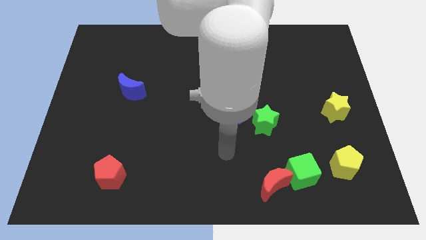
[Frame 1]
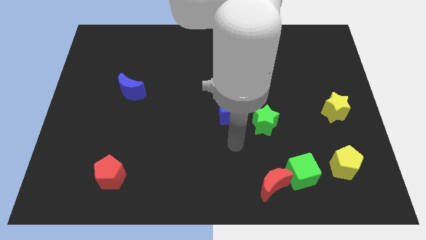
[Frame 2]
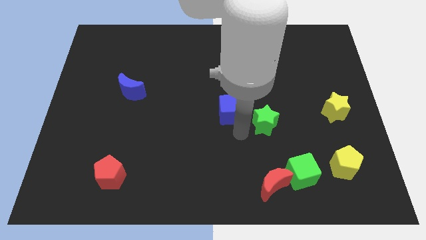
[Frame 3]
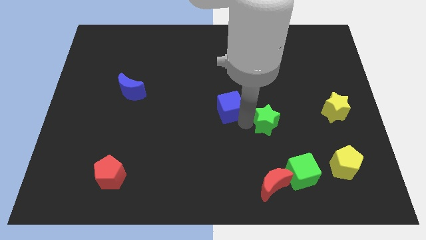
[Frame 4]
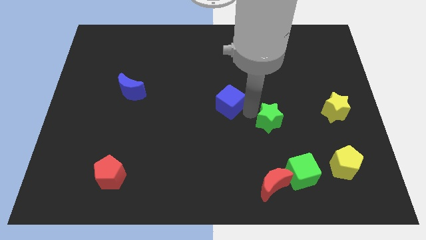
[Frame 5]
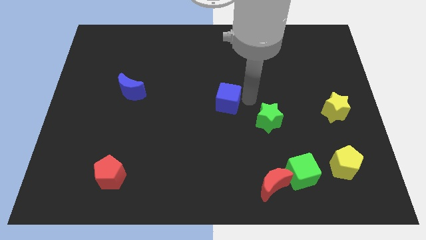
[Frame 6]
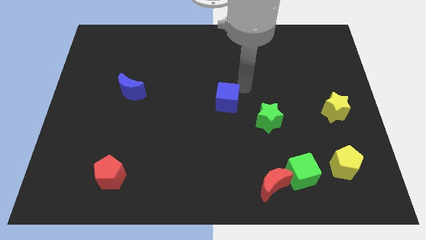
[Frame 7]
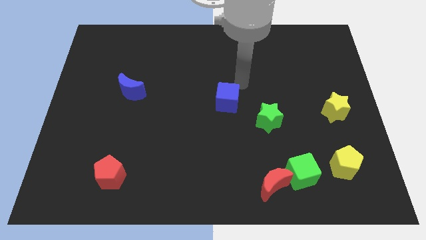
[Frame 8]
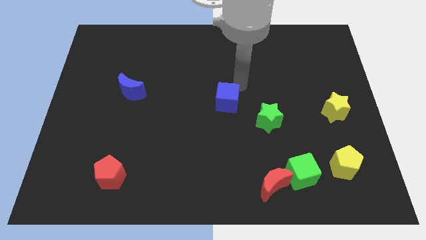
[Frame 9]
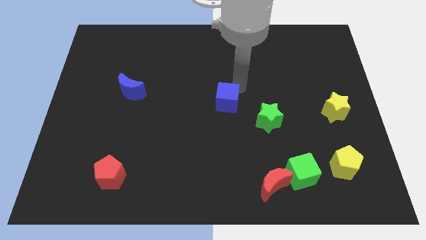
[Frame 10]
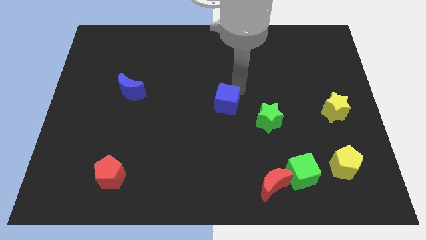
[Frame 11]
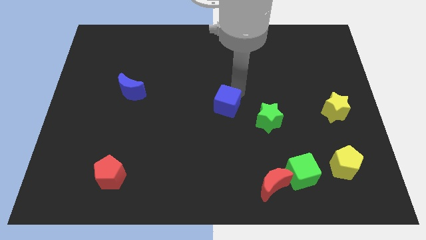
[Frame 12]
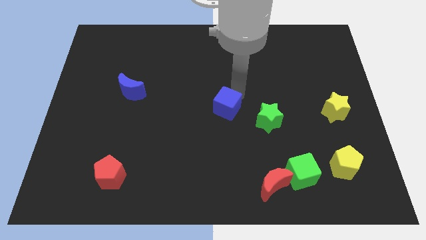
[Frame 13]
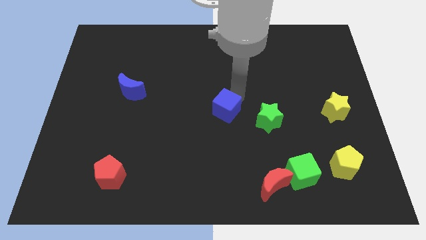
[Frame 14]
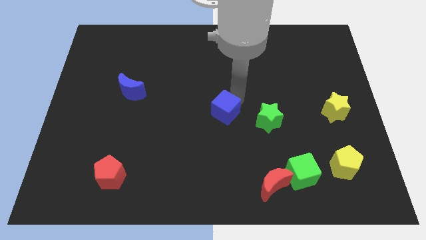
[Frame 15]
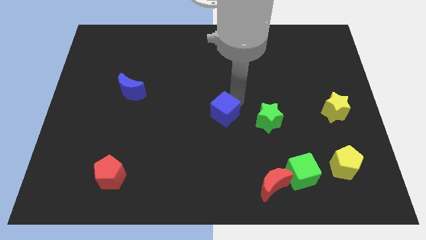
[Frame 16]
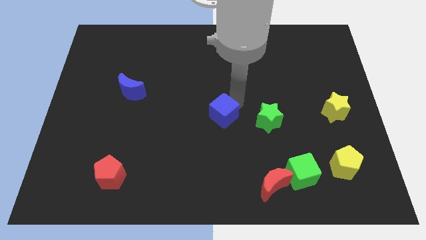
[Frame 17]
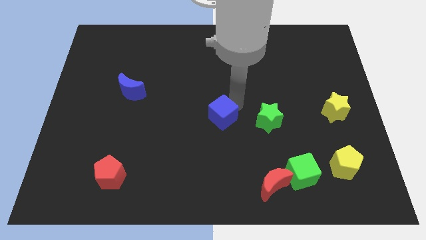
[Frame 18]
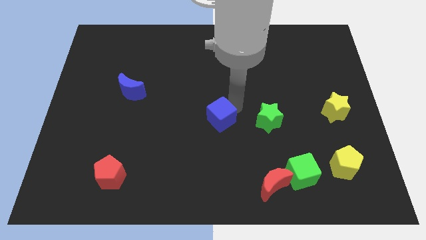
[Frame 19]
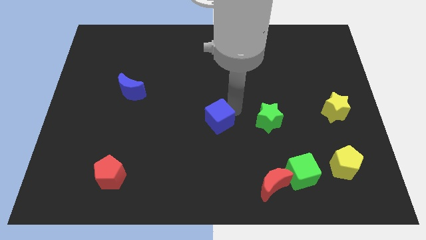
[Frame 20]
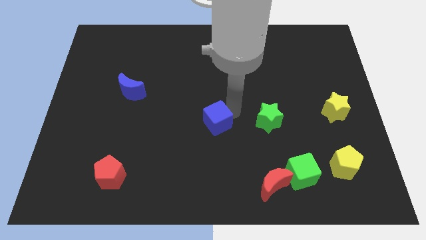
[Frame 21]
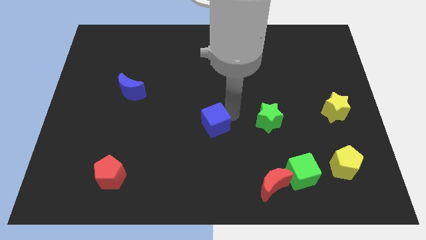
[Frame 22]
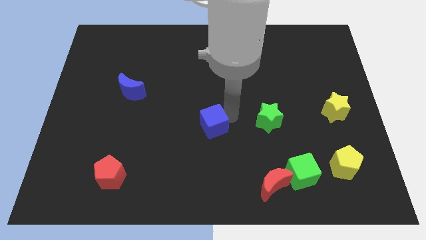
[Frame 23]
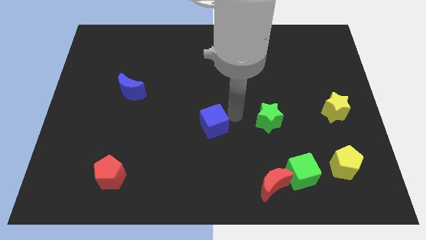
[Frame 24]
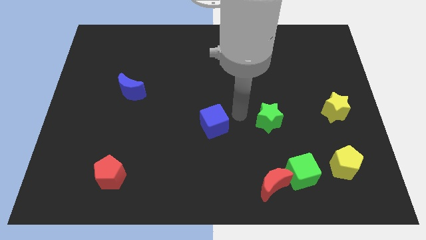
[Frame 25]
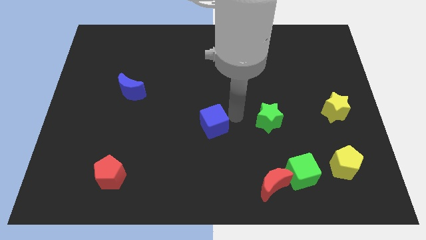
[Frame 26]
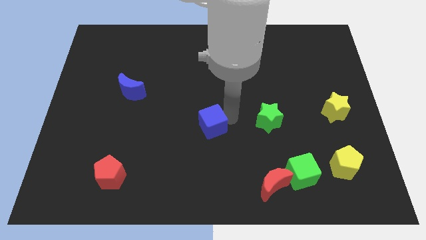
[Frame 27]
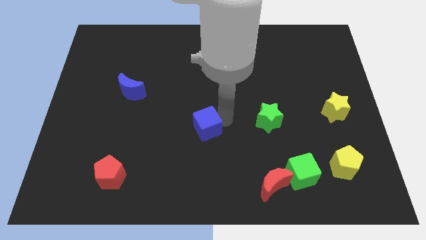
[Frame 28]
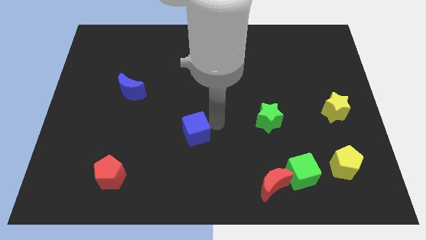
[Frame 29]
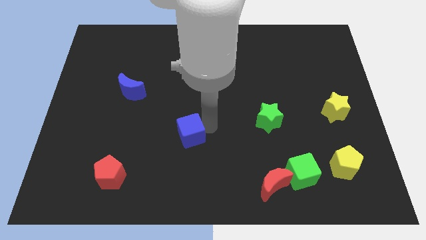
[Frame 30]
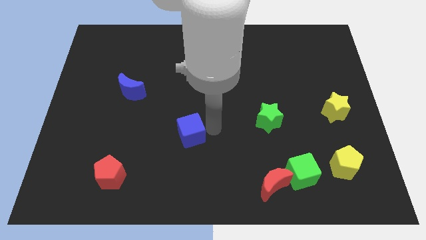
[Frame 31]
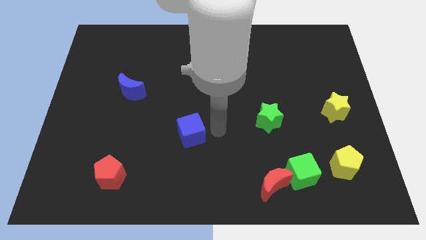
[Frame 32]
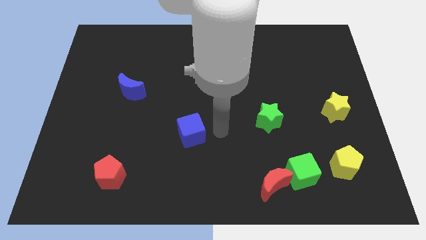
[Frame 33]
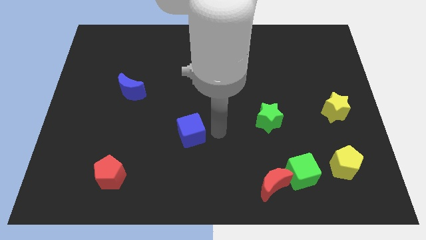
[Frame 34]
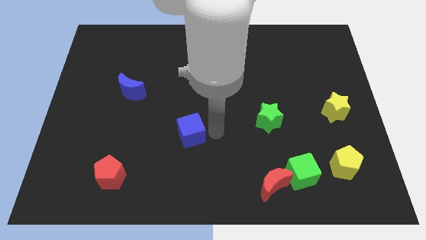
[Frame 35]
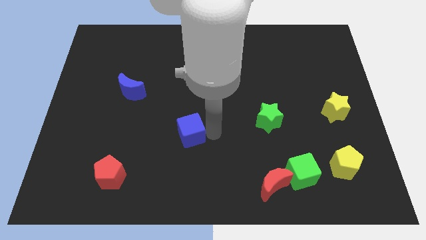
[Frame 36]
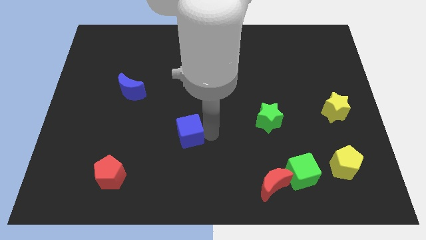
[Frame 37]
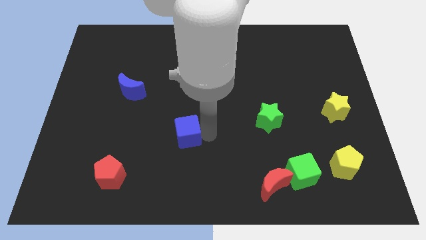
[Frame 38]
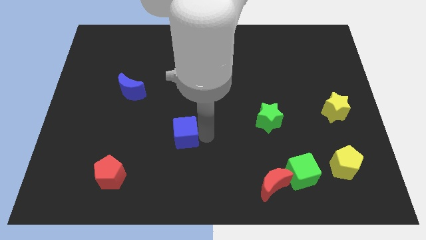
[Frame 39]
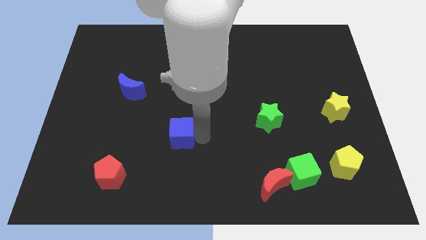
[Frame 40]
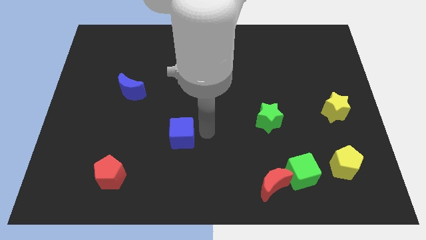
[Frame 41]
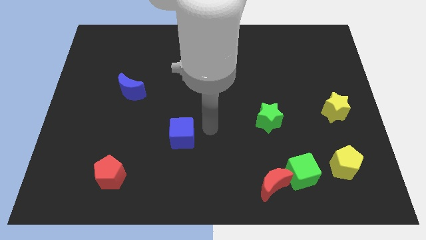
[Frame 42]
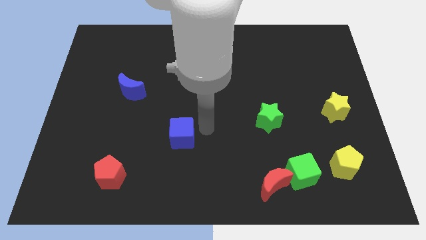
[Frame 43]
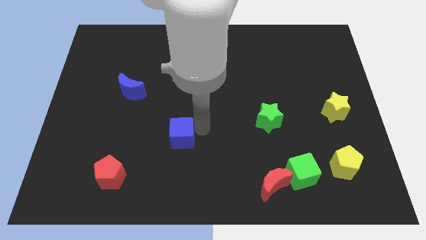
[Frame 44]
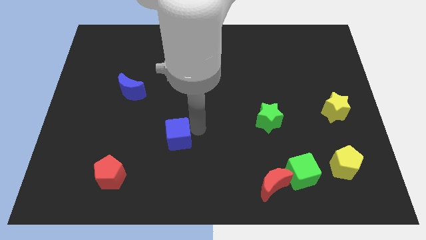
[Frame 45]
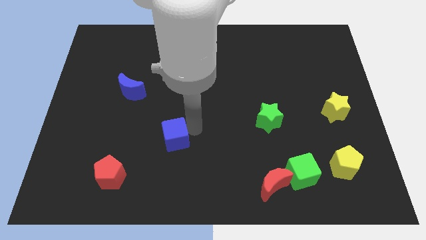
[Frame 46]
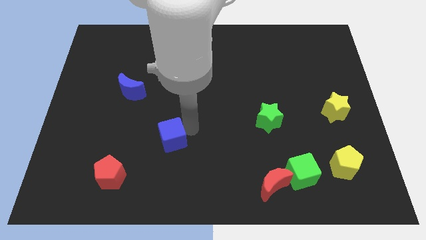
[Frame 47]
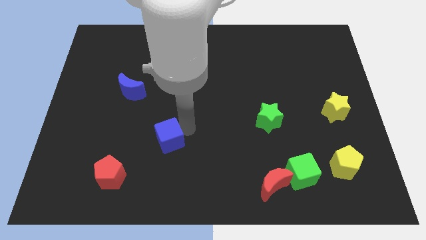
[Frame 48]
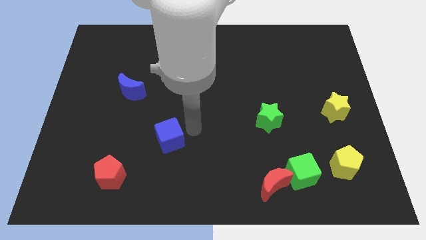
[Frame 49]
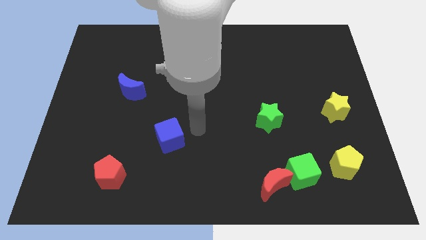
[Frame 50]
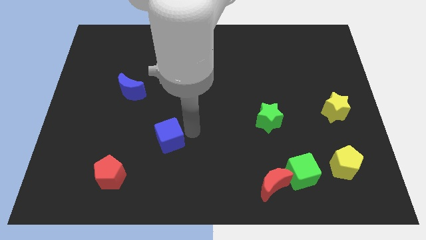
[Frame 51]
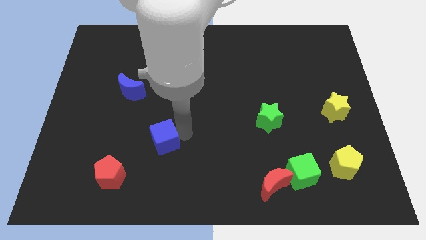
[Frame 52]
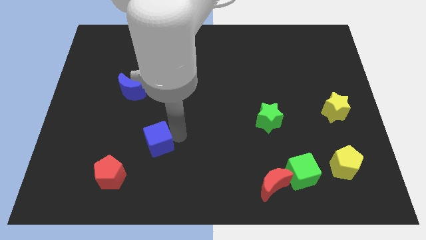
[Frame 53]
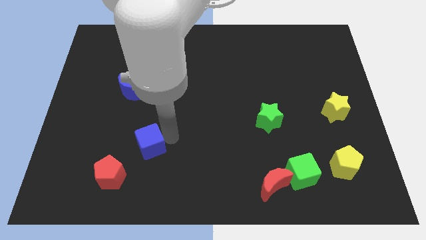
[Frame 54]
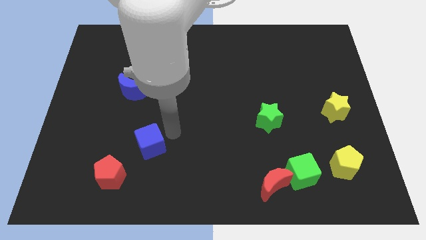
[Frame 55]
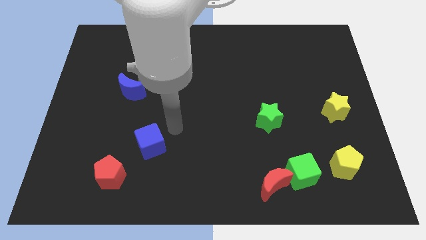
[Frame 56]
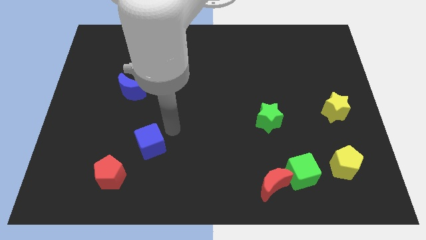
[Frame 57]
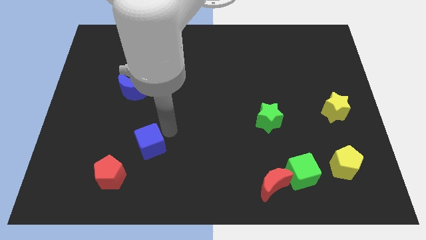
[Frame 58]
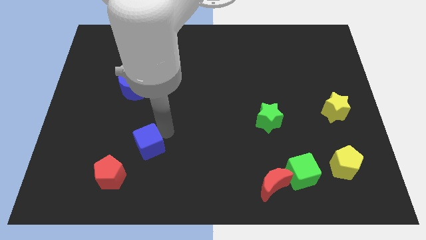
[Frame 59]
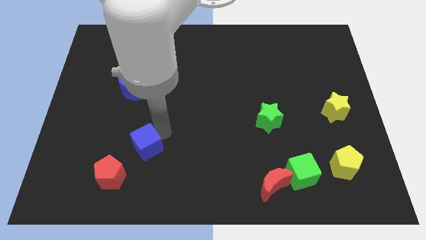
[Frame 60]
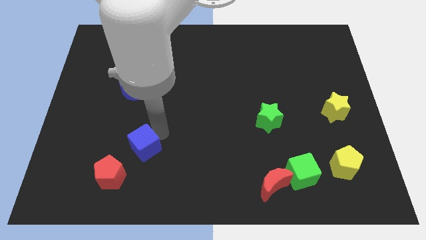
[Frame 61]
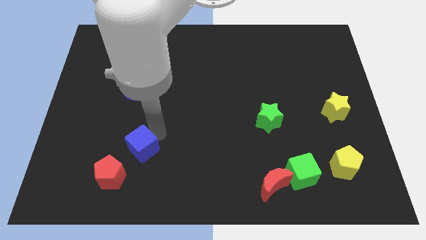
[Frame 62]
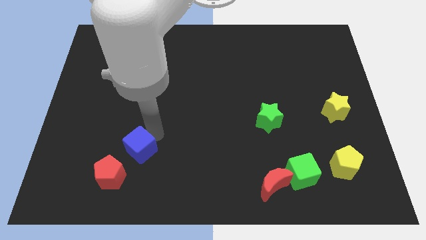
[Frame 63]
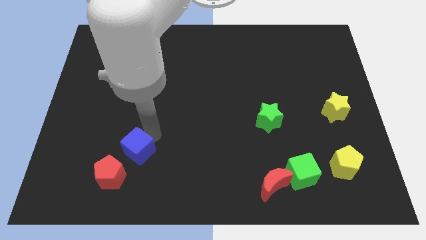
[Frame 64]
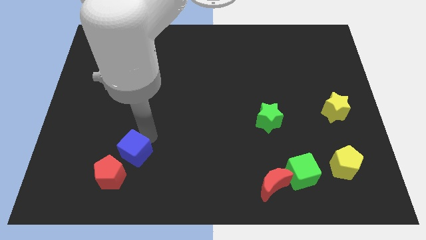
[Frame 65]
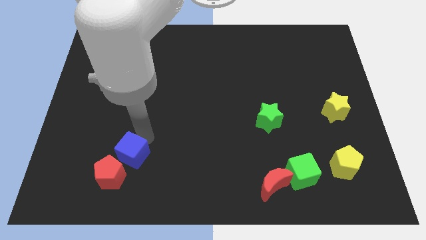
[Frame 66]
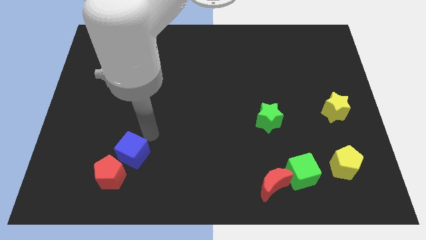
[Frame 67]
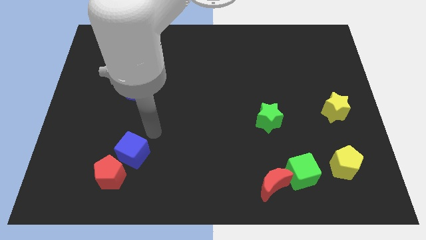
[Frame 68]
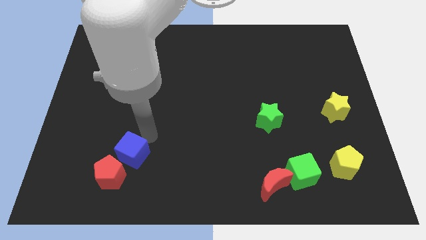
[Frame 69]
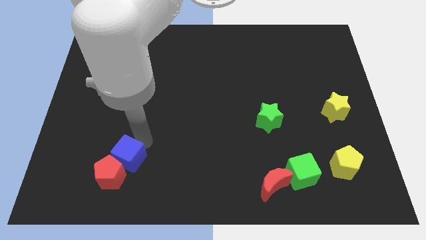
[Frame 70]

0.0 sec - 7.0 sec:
slide the blue cube to the red pentagon

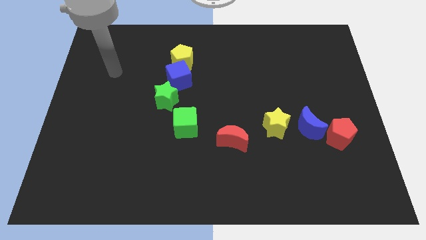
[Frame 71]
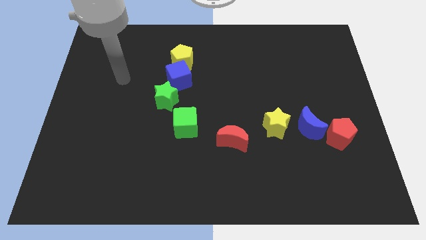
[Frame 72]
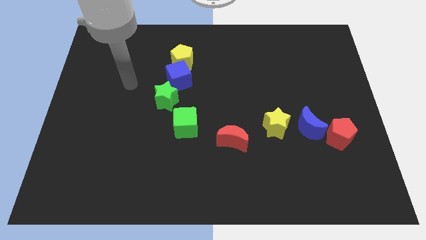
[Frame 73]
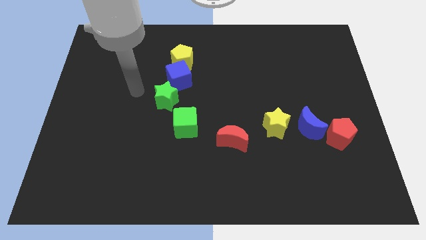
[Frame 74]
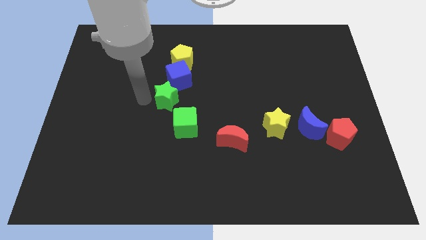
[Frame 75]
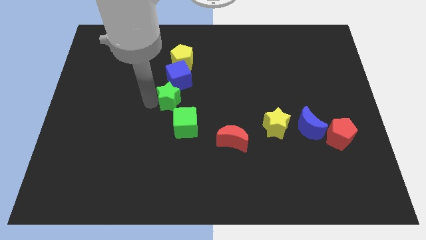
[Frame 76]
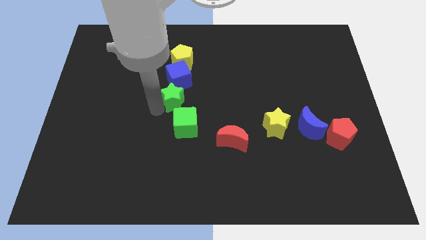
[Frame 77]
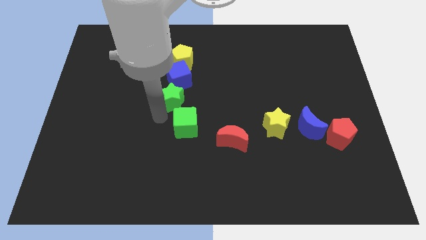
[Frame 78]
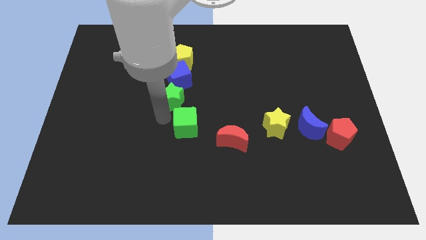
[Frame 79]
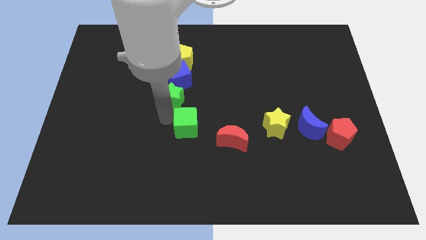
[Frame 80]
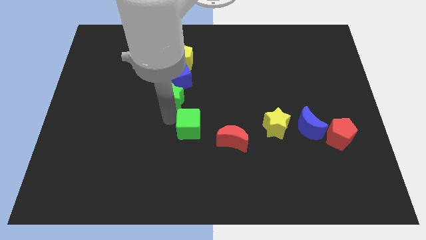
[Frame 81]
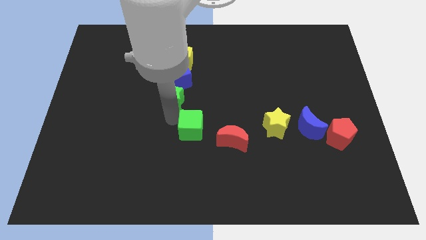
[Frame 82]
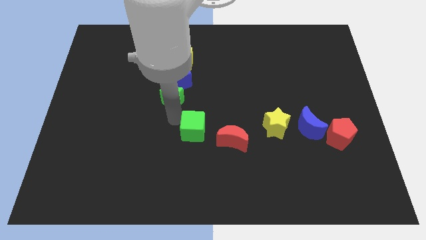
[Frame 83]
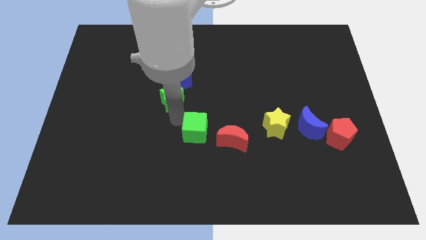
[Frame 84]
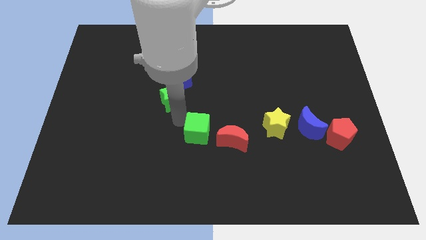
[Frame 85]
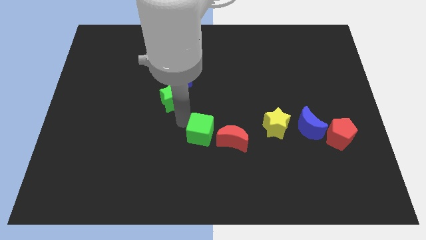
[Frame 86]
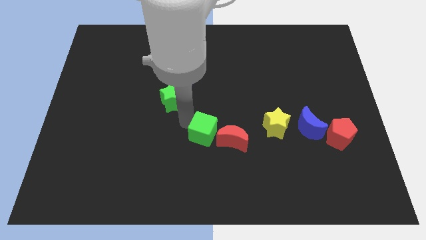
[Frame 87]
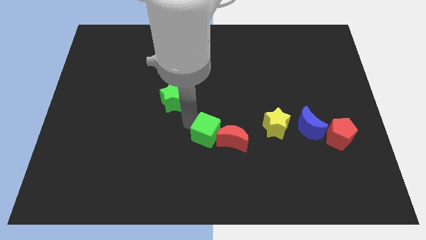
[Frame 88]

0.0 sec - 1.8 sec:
push the green cube next to the red moon
